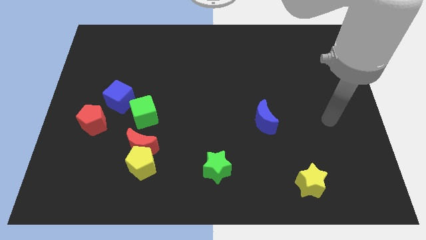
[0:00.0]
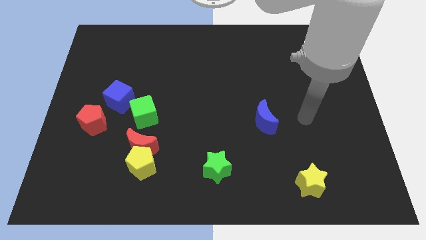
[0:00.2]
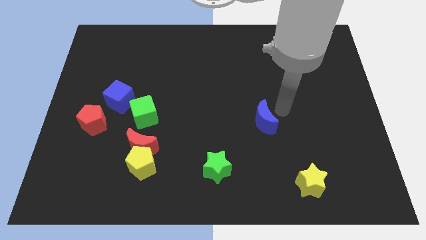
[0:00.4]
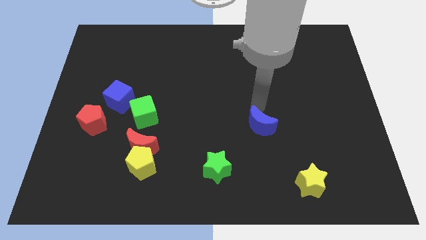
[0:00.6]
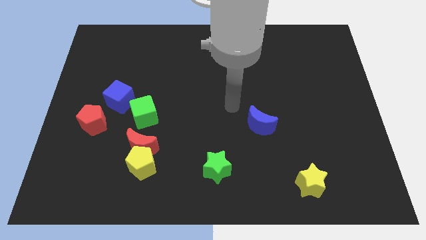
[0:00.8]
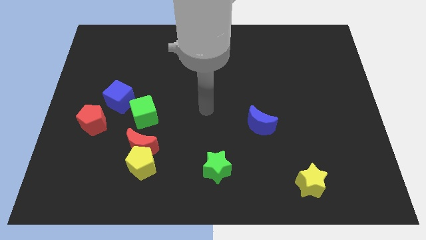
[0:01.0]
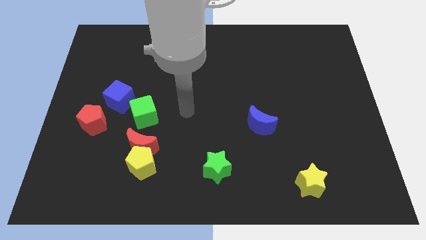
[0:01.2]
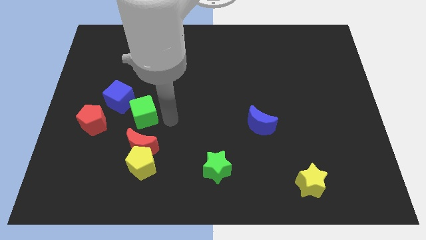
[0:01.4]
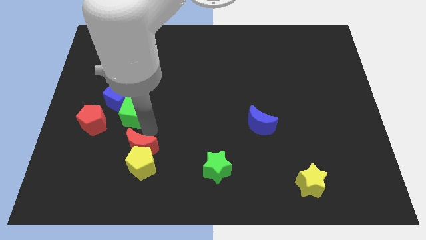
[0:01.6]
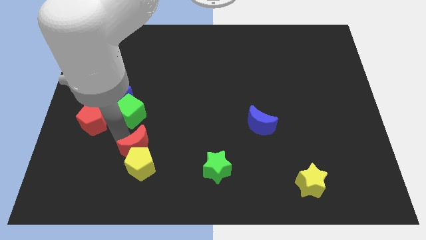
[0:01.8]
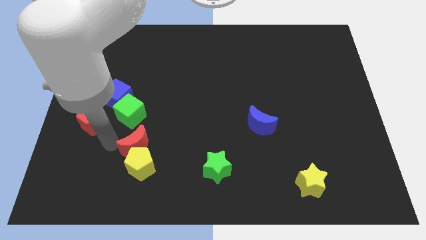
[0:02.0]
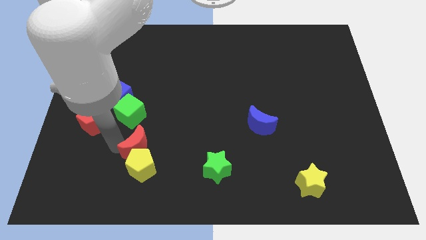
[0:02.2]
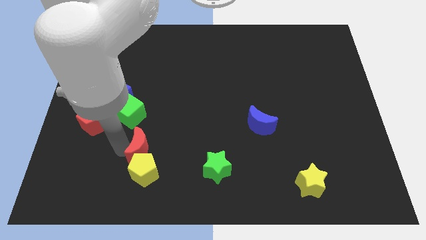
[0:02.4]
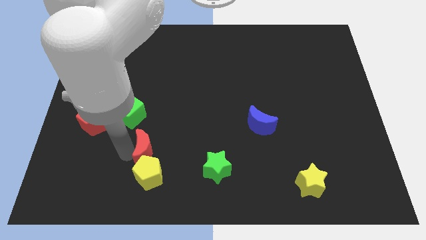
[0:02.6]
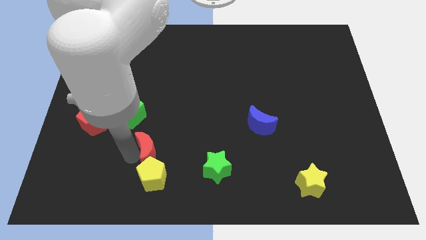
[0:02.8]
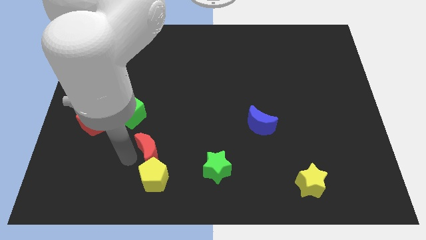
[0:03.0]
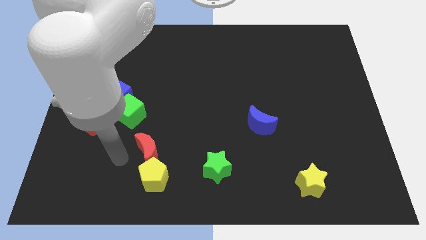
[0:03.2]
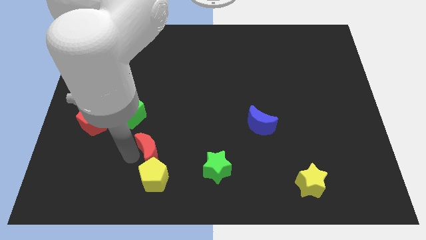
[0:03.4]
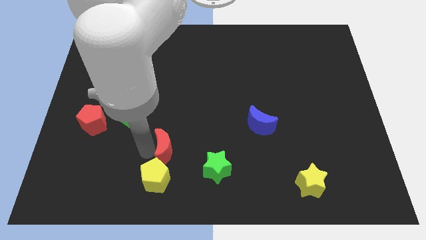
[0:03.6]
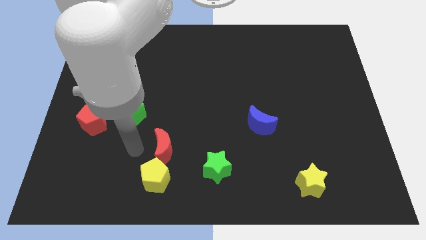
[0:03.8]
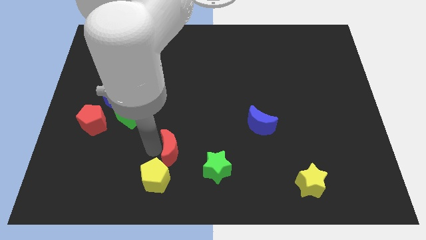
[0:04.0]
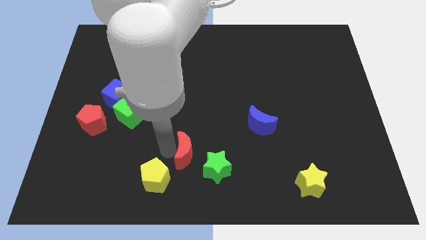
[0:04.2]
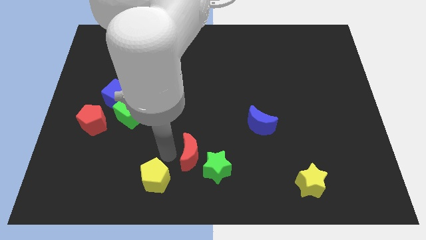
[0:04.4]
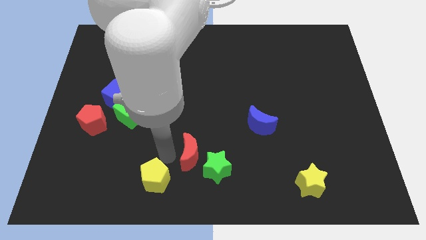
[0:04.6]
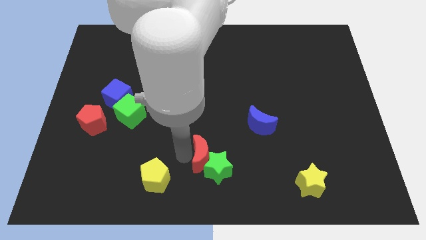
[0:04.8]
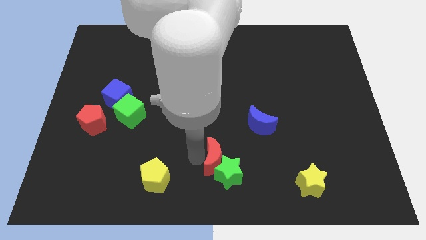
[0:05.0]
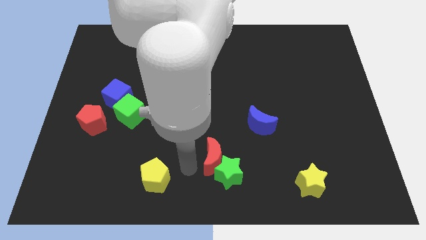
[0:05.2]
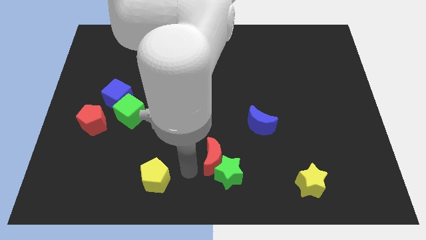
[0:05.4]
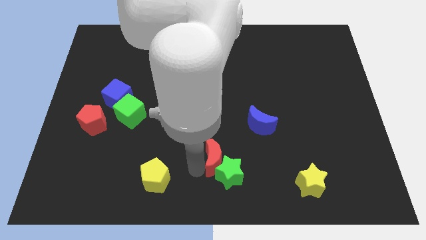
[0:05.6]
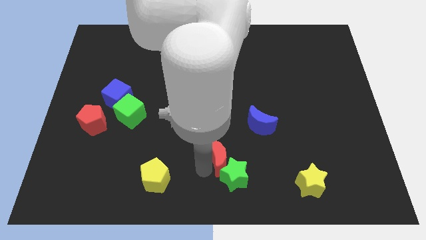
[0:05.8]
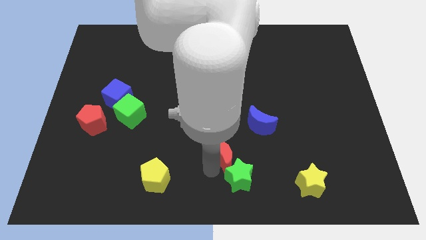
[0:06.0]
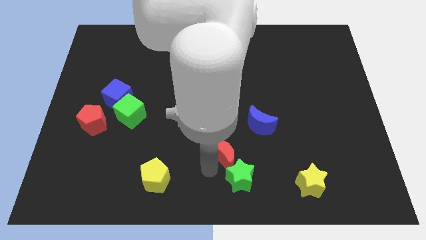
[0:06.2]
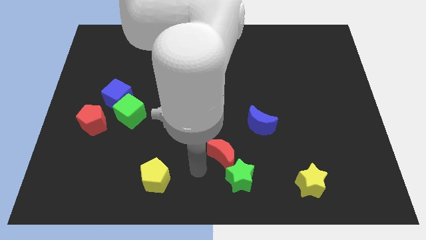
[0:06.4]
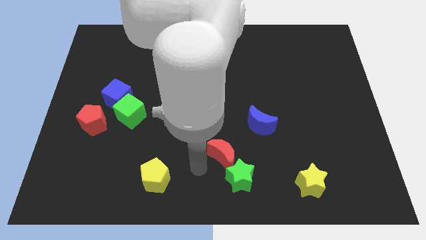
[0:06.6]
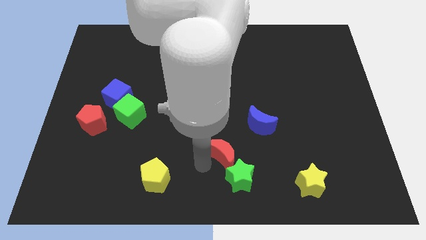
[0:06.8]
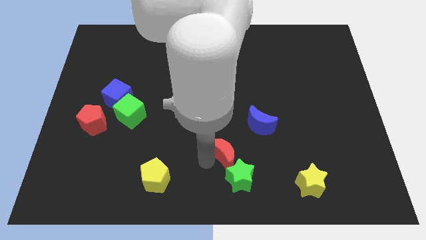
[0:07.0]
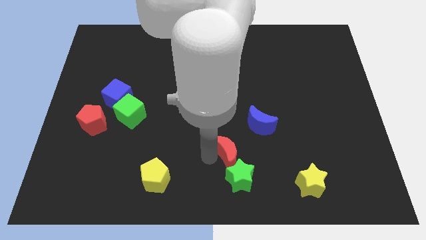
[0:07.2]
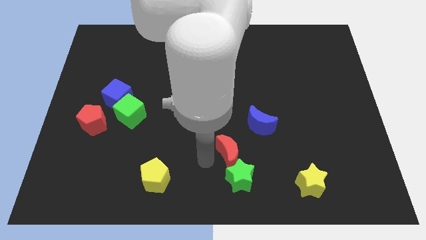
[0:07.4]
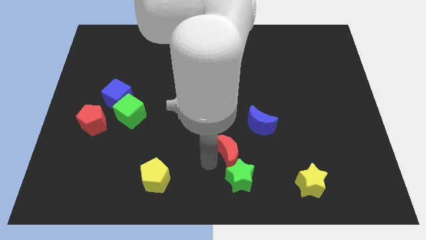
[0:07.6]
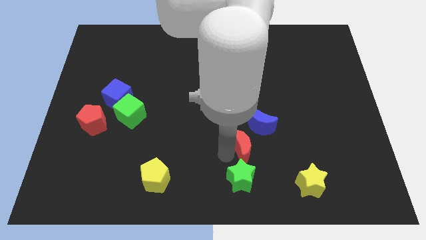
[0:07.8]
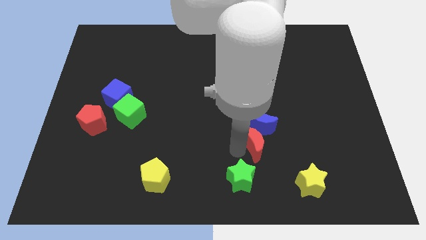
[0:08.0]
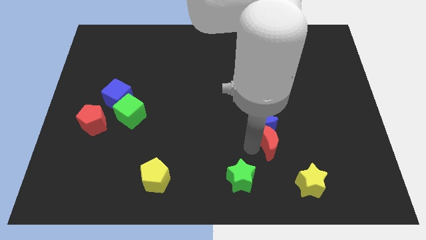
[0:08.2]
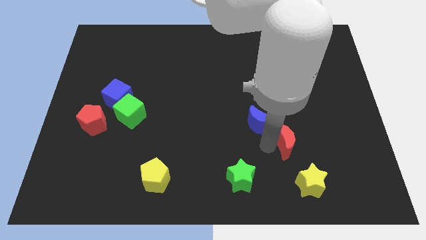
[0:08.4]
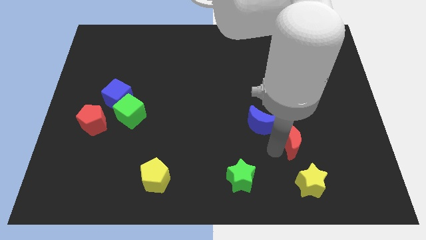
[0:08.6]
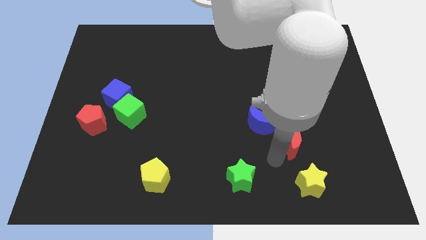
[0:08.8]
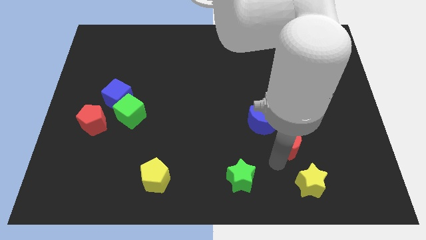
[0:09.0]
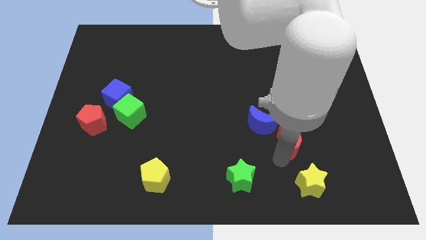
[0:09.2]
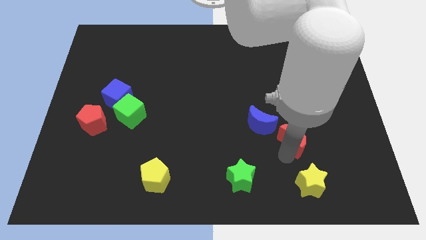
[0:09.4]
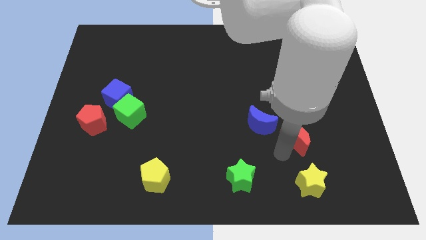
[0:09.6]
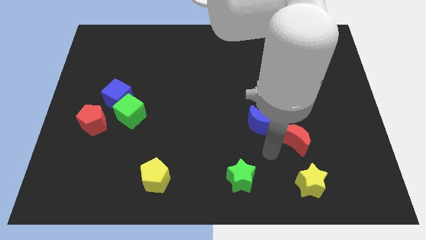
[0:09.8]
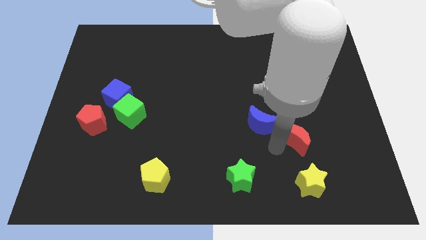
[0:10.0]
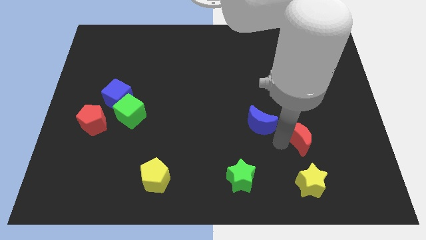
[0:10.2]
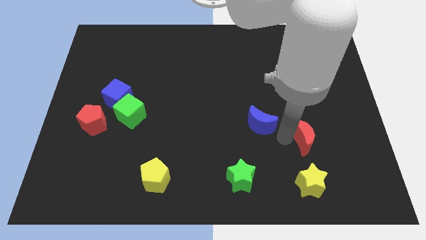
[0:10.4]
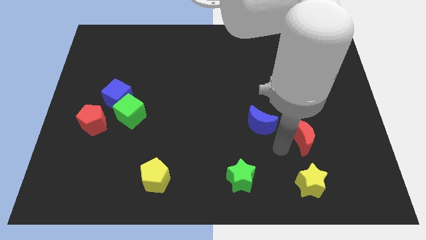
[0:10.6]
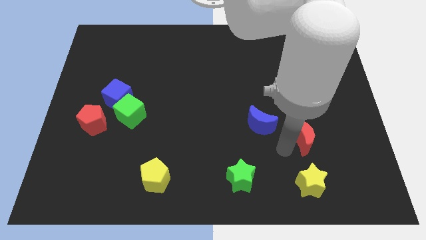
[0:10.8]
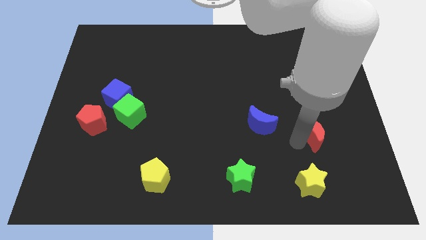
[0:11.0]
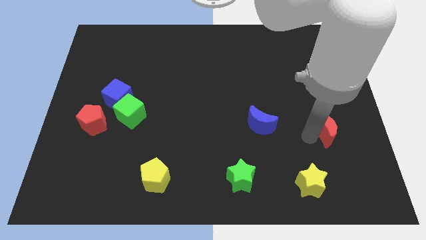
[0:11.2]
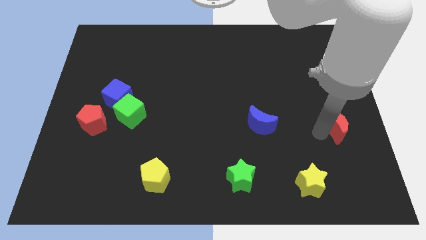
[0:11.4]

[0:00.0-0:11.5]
push the red moon to the right side

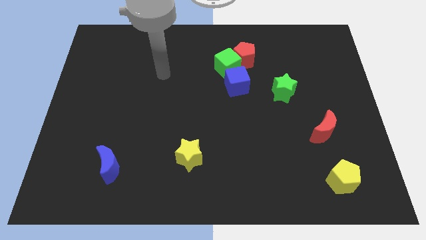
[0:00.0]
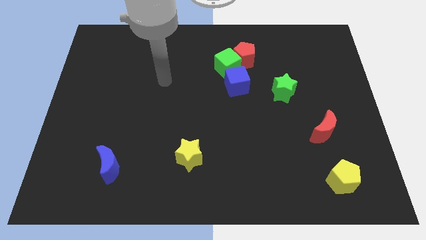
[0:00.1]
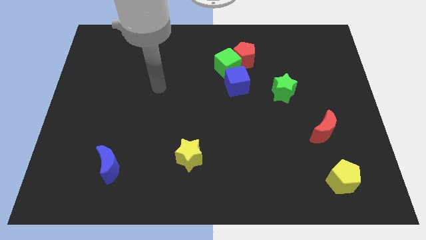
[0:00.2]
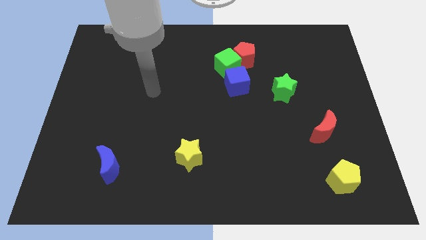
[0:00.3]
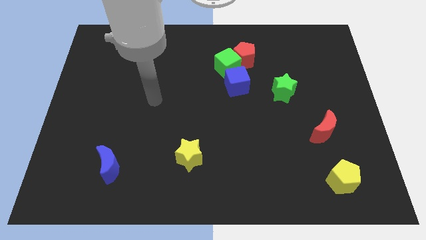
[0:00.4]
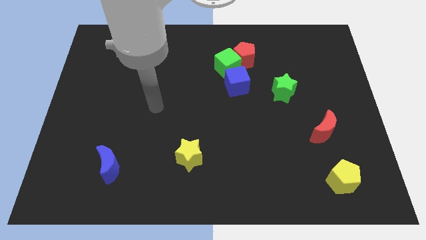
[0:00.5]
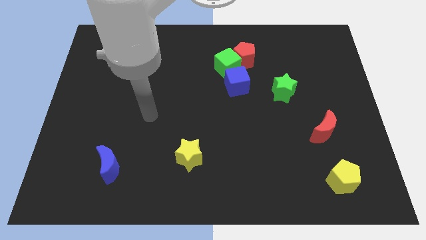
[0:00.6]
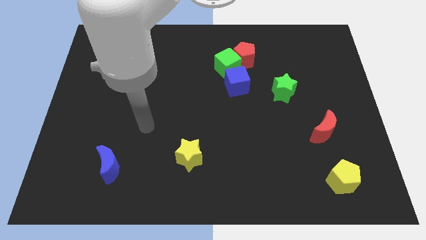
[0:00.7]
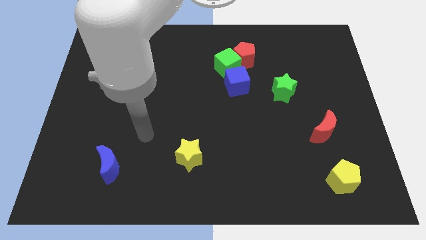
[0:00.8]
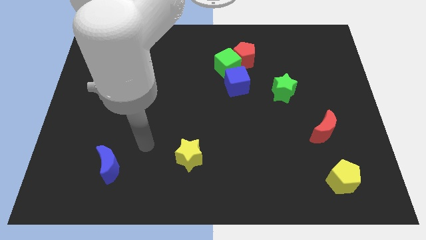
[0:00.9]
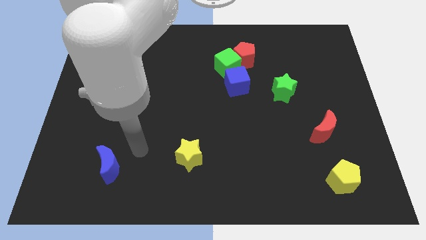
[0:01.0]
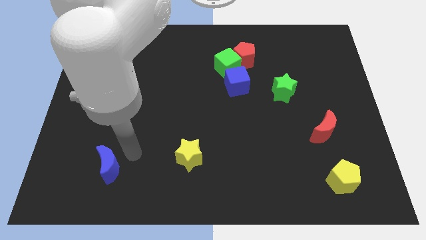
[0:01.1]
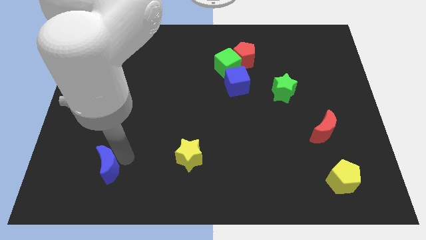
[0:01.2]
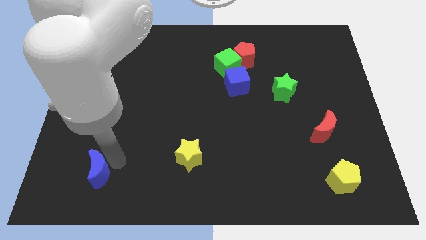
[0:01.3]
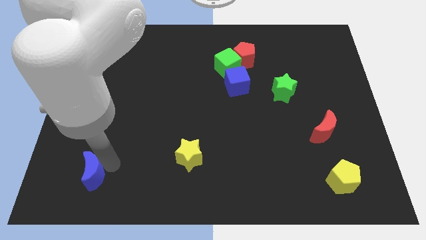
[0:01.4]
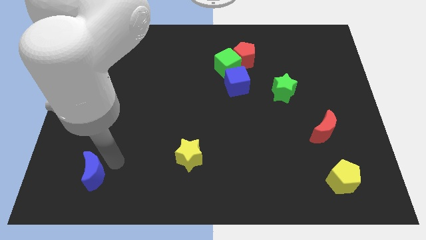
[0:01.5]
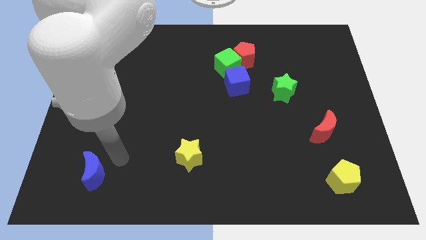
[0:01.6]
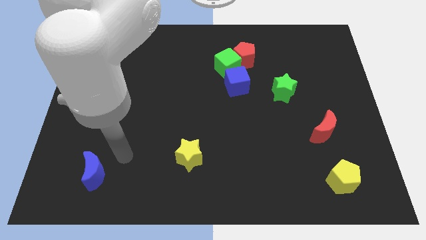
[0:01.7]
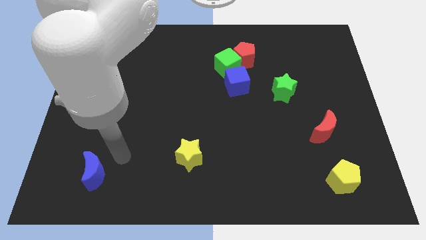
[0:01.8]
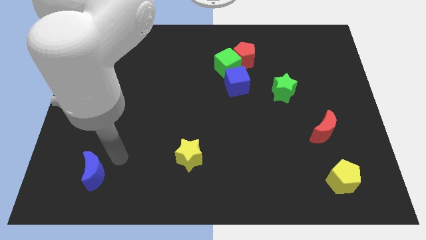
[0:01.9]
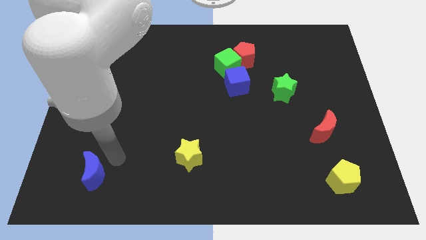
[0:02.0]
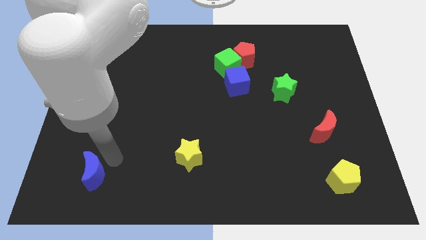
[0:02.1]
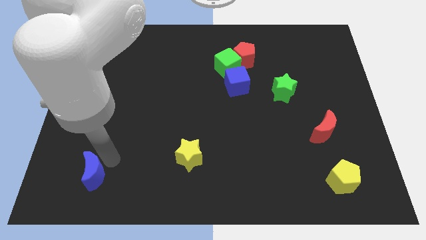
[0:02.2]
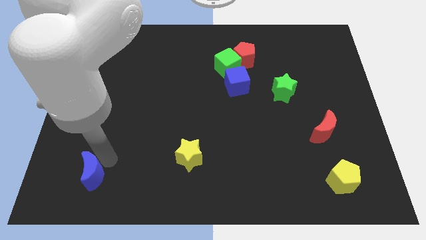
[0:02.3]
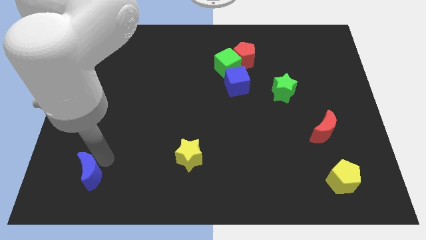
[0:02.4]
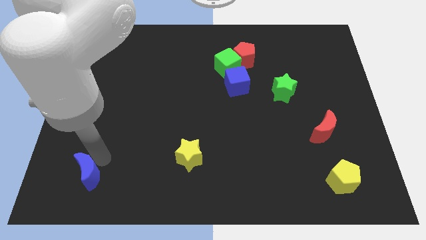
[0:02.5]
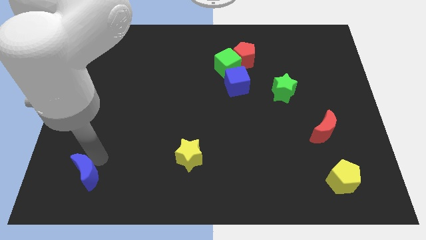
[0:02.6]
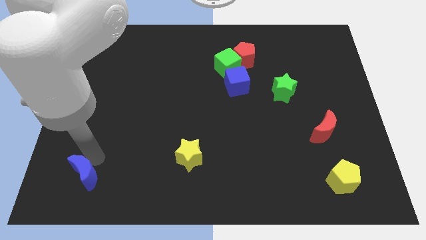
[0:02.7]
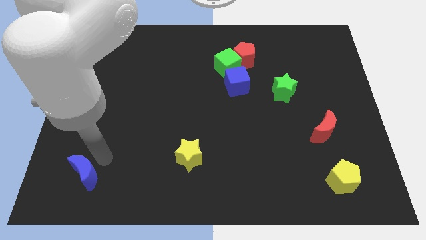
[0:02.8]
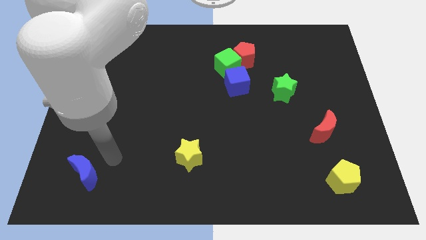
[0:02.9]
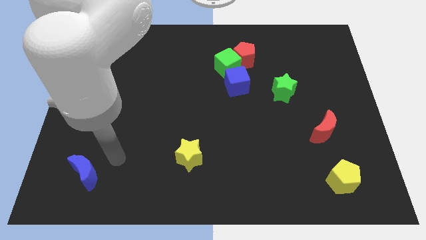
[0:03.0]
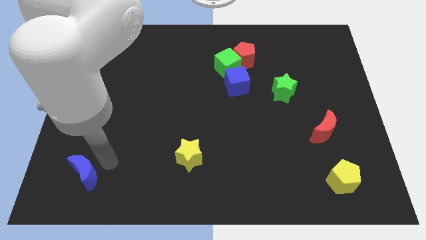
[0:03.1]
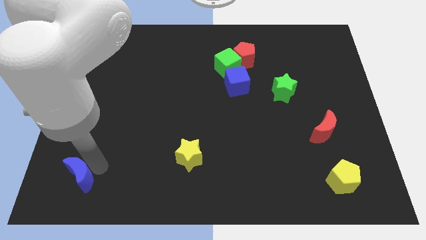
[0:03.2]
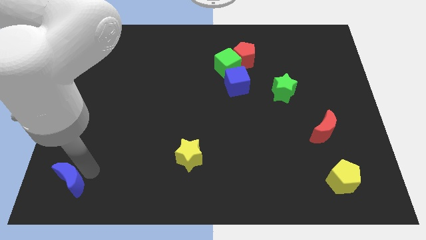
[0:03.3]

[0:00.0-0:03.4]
push the blue moon to the bottom left
